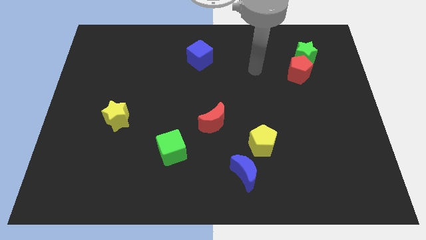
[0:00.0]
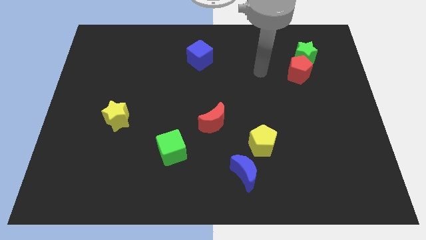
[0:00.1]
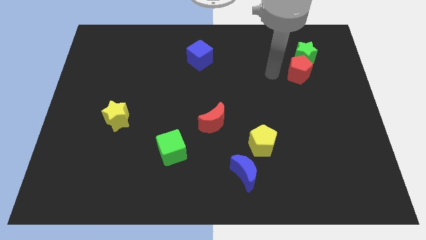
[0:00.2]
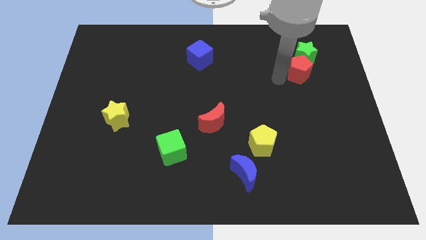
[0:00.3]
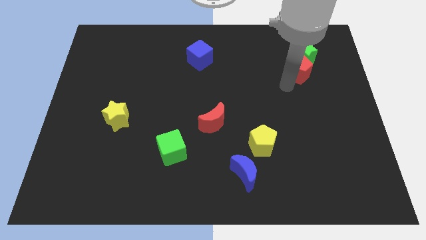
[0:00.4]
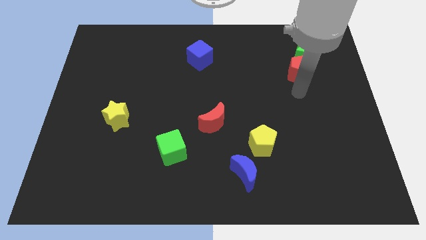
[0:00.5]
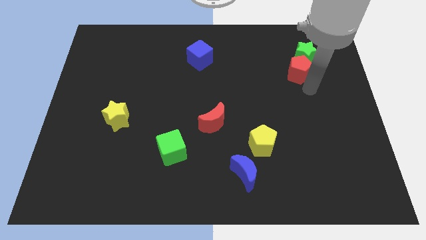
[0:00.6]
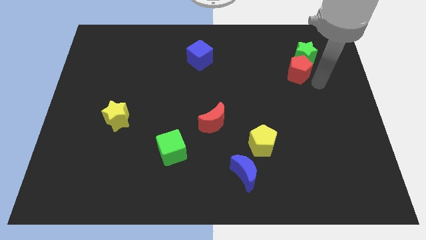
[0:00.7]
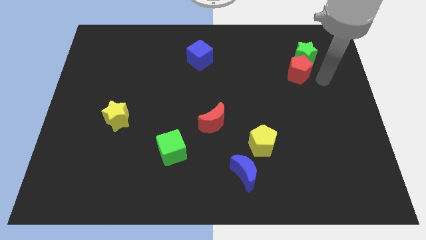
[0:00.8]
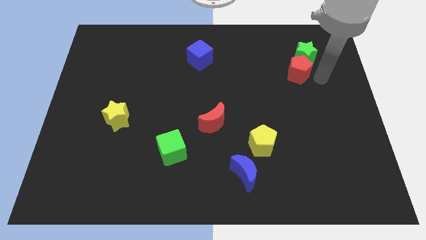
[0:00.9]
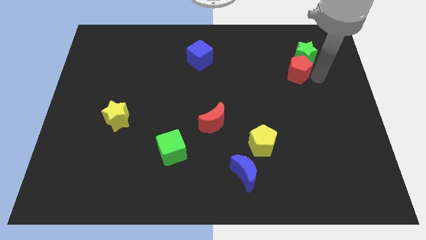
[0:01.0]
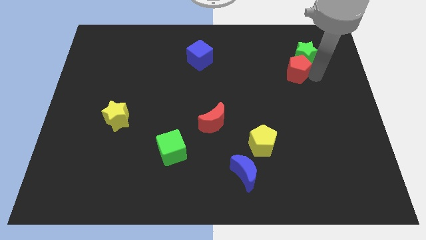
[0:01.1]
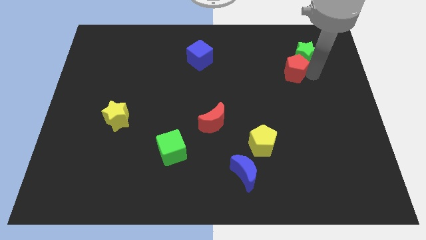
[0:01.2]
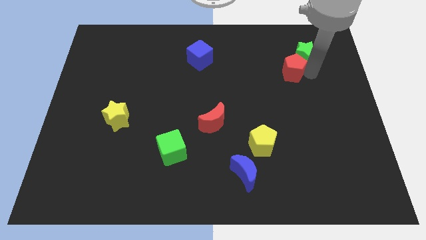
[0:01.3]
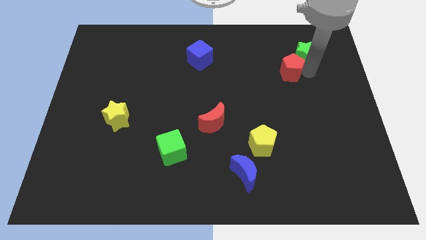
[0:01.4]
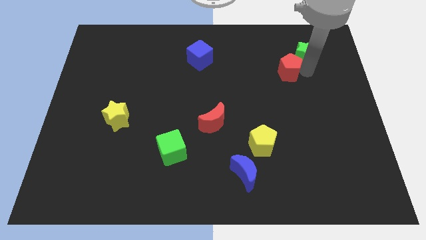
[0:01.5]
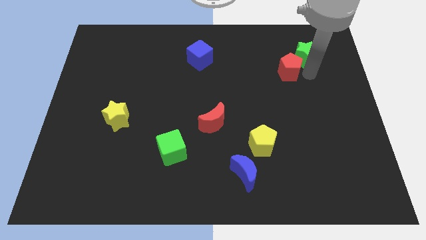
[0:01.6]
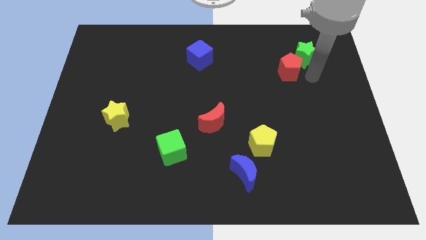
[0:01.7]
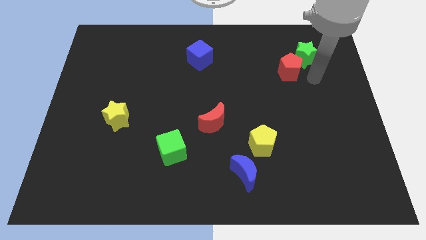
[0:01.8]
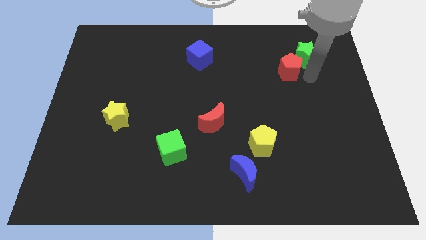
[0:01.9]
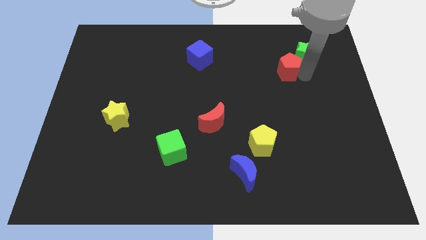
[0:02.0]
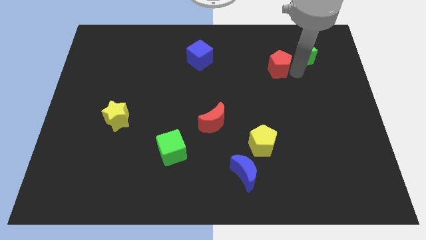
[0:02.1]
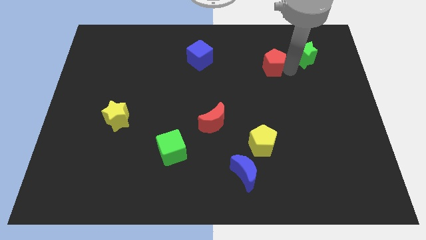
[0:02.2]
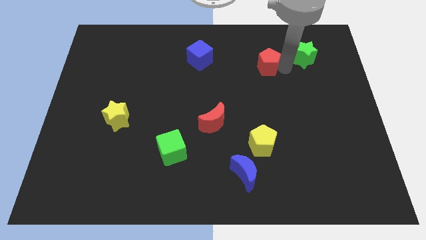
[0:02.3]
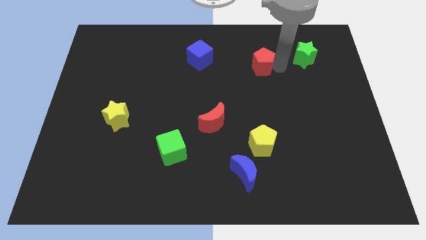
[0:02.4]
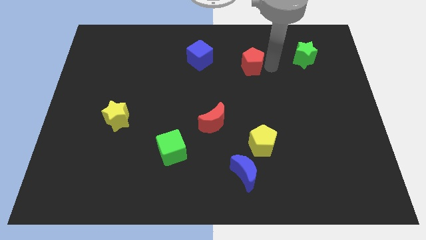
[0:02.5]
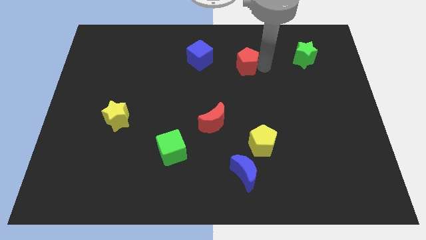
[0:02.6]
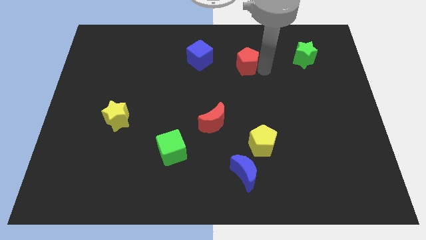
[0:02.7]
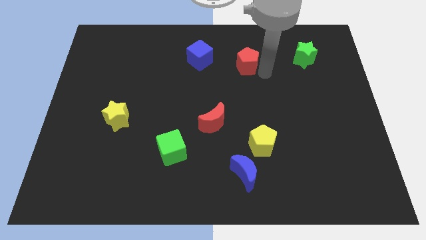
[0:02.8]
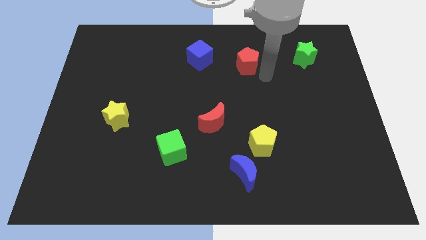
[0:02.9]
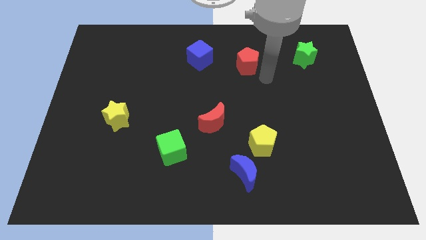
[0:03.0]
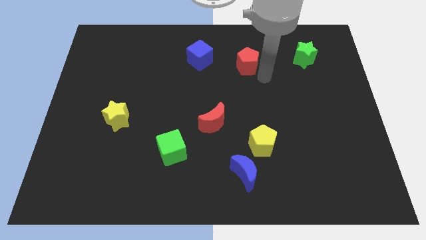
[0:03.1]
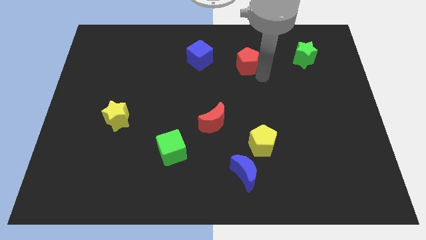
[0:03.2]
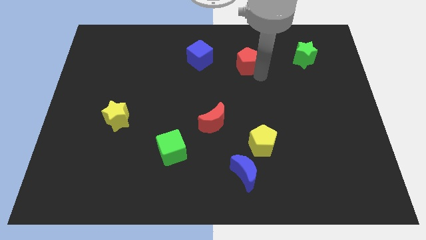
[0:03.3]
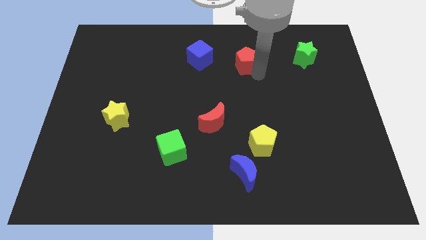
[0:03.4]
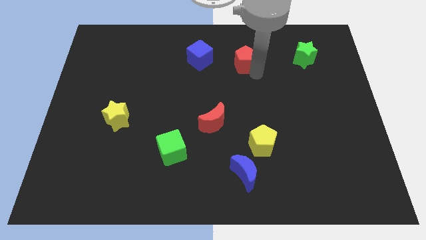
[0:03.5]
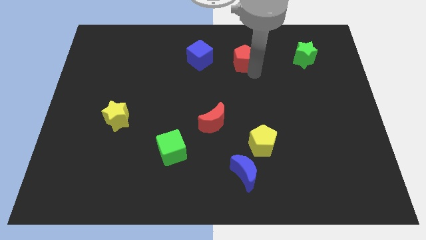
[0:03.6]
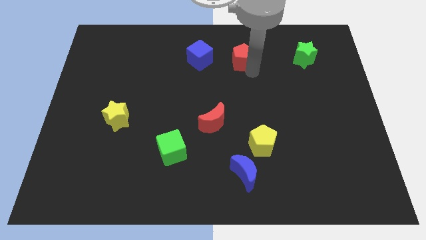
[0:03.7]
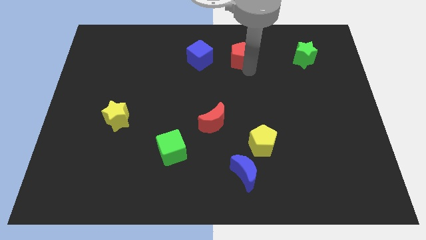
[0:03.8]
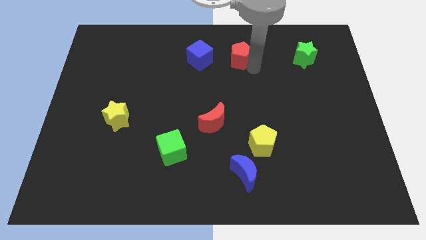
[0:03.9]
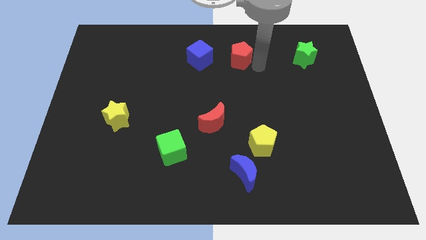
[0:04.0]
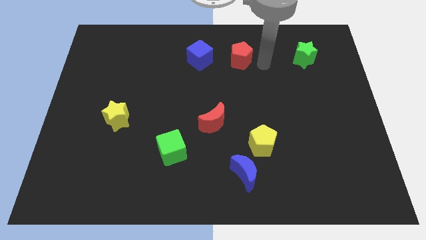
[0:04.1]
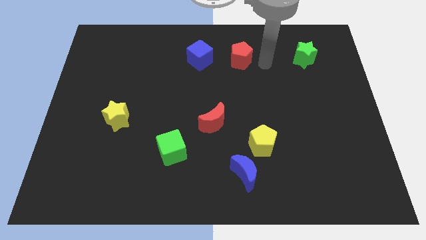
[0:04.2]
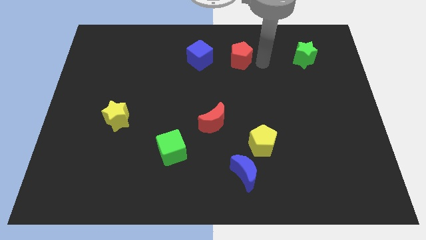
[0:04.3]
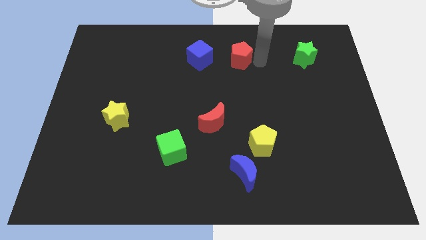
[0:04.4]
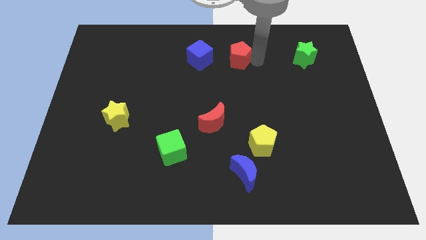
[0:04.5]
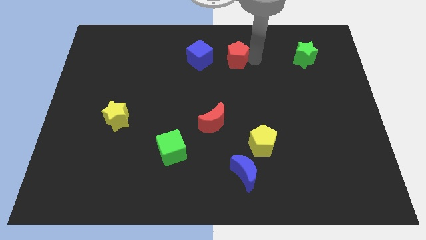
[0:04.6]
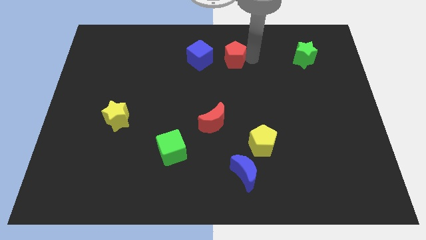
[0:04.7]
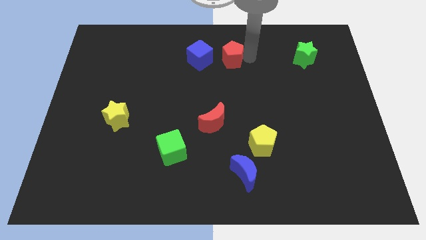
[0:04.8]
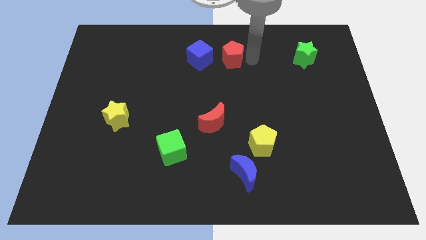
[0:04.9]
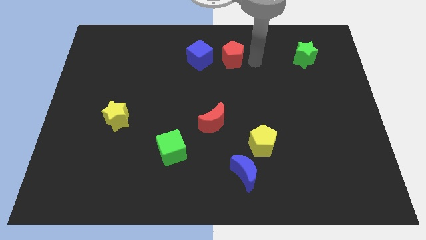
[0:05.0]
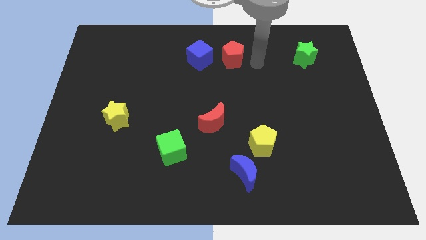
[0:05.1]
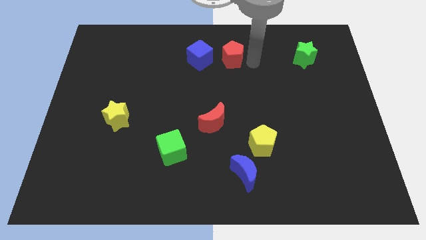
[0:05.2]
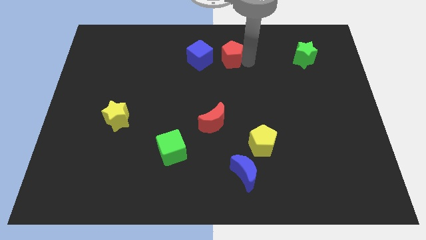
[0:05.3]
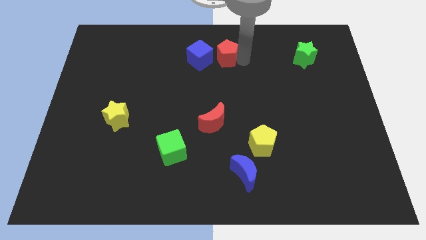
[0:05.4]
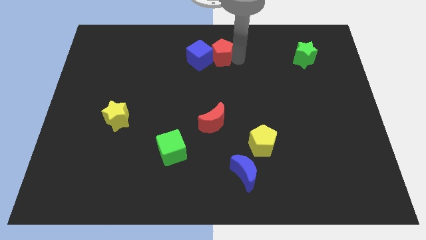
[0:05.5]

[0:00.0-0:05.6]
put the red pentagon close to the blue cube

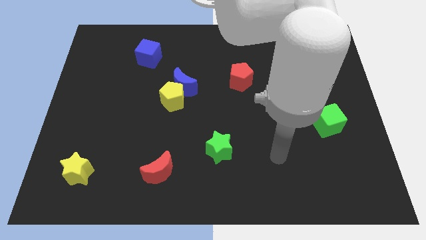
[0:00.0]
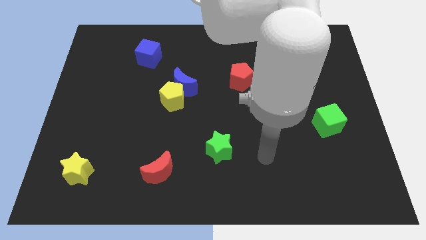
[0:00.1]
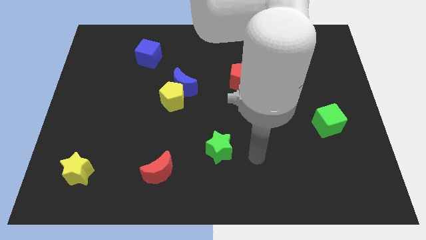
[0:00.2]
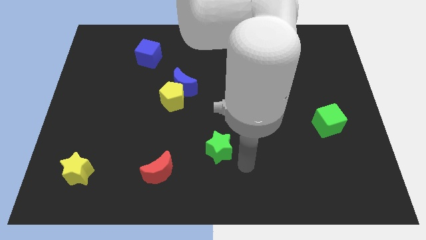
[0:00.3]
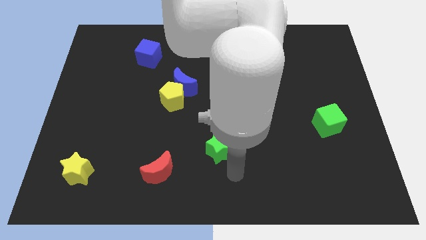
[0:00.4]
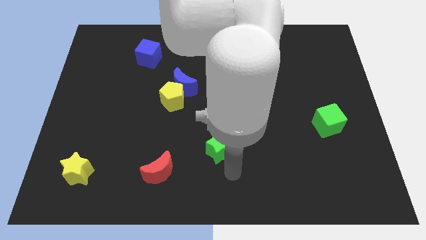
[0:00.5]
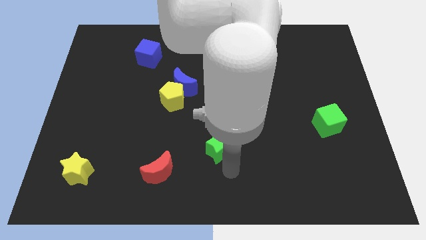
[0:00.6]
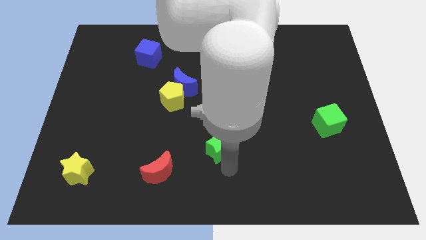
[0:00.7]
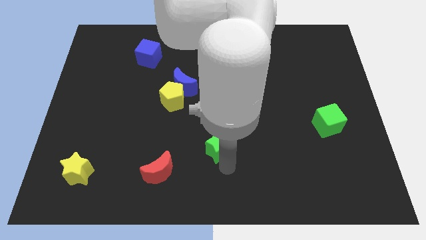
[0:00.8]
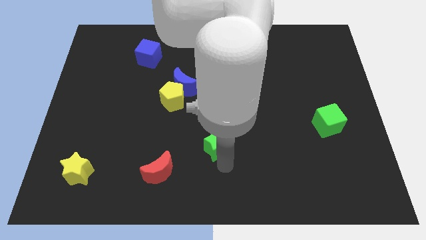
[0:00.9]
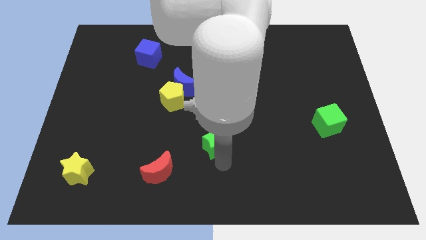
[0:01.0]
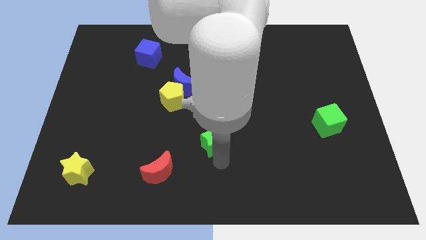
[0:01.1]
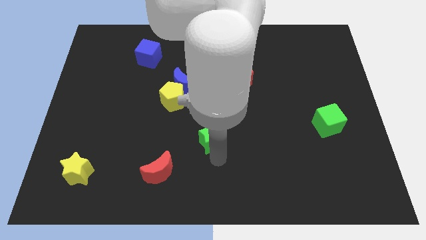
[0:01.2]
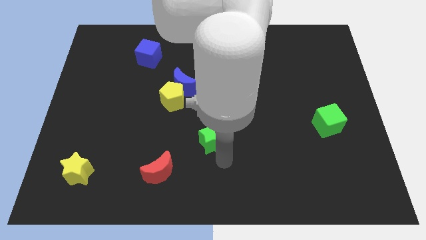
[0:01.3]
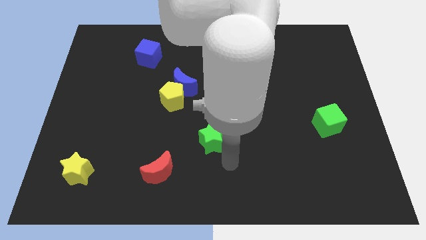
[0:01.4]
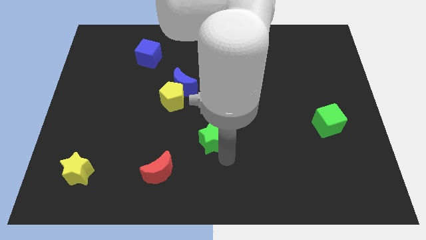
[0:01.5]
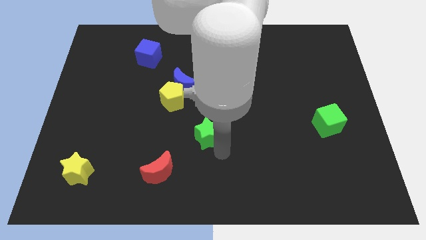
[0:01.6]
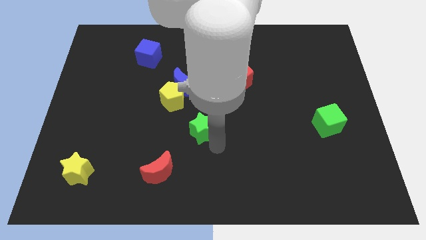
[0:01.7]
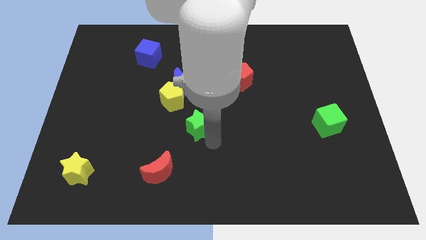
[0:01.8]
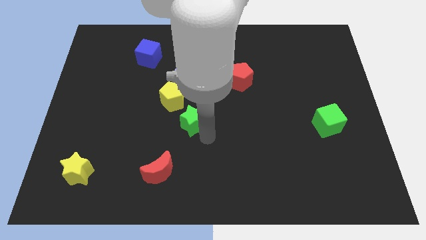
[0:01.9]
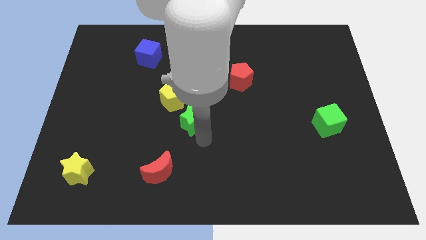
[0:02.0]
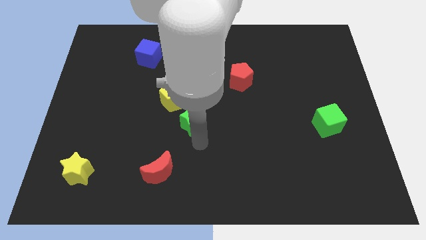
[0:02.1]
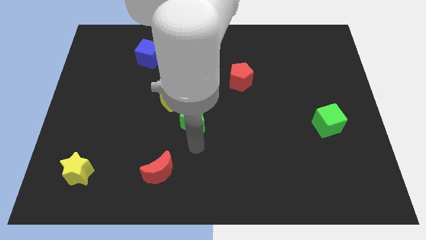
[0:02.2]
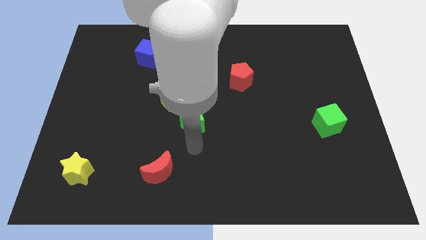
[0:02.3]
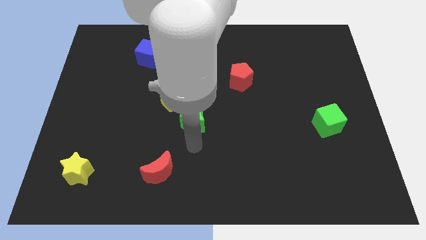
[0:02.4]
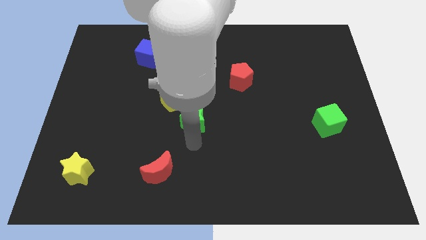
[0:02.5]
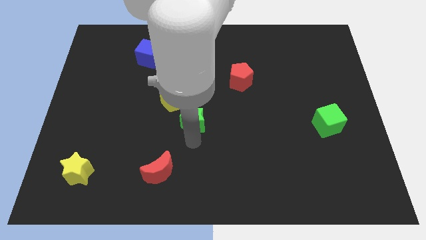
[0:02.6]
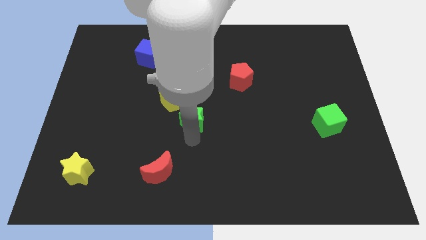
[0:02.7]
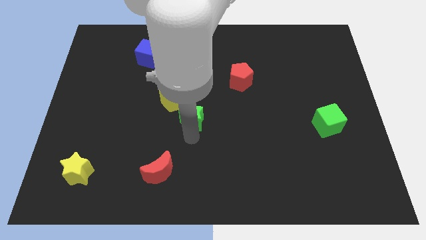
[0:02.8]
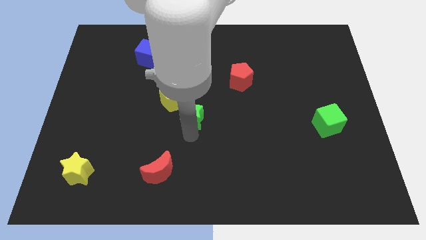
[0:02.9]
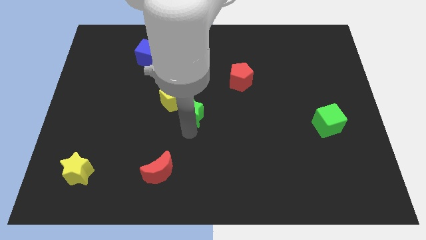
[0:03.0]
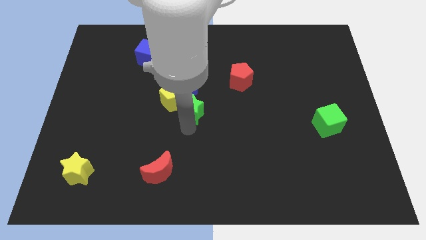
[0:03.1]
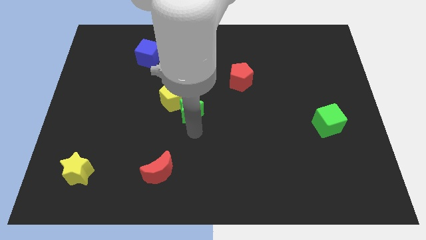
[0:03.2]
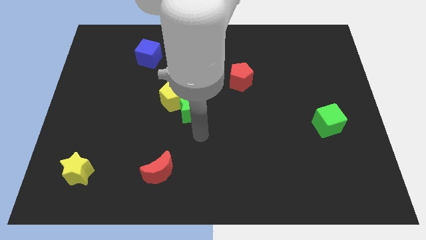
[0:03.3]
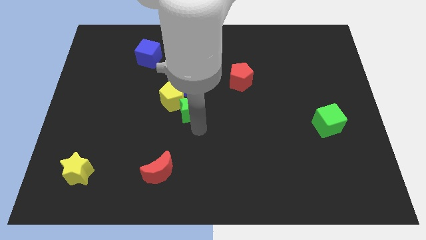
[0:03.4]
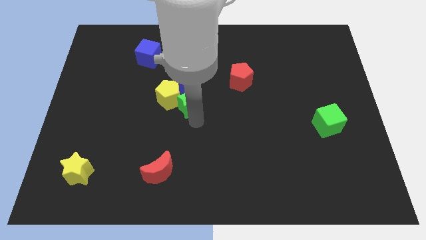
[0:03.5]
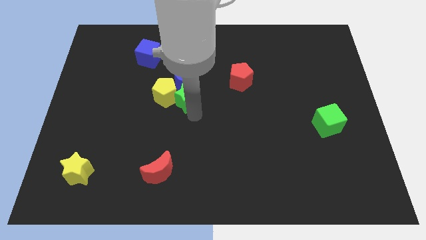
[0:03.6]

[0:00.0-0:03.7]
move the green star next to the blue moon
